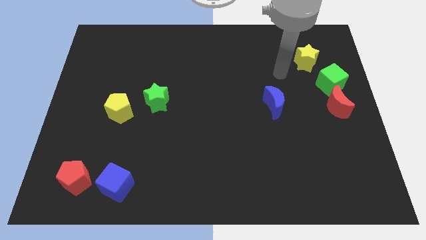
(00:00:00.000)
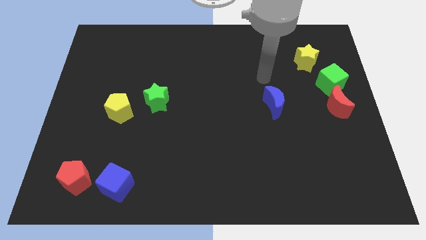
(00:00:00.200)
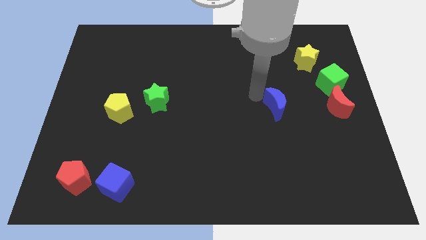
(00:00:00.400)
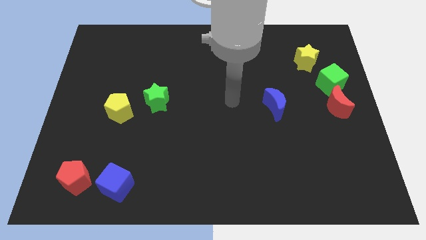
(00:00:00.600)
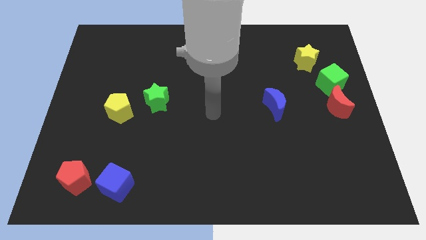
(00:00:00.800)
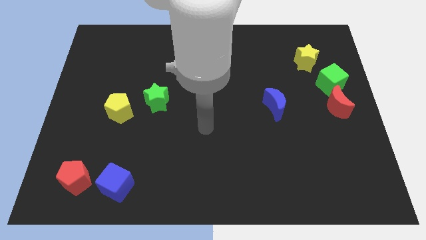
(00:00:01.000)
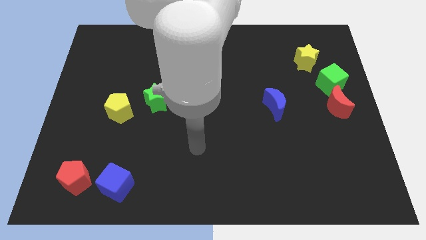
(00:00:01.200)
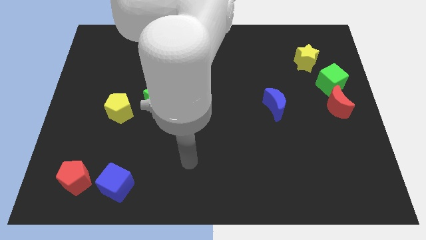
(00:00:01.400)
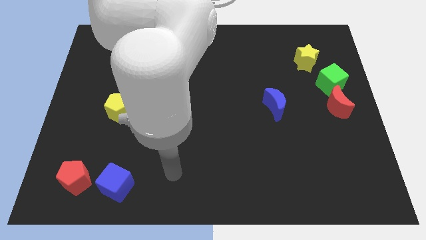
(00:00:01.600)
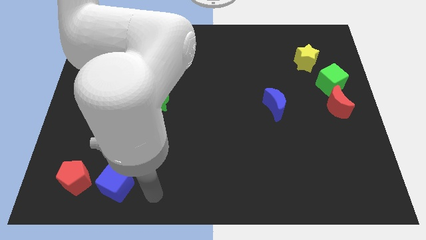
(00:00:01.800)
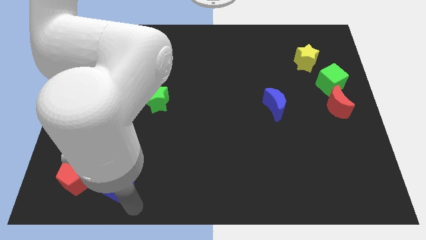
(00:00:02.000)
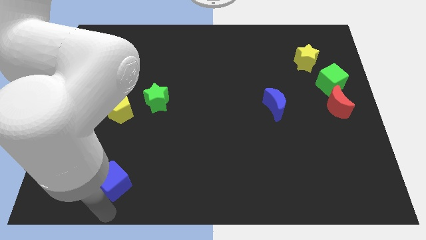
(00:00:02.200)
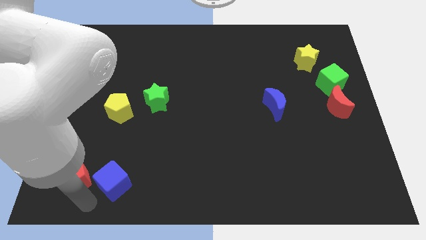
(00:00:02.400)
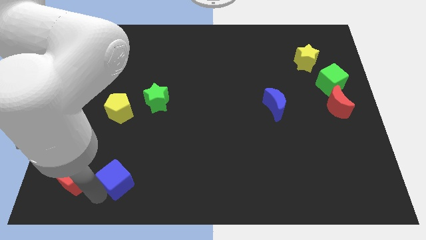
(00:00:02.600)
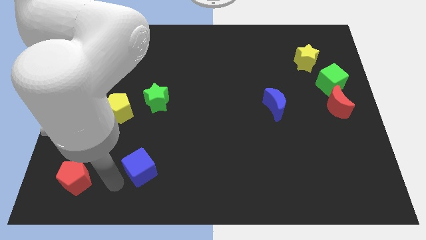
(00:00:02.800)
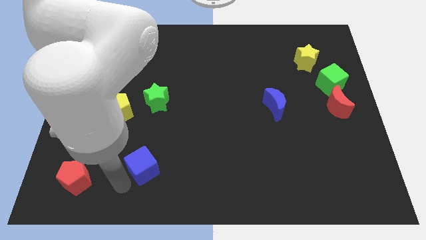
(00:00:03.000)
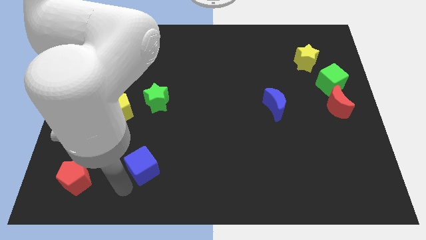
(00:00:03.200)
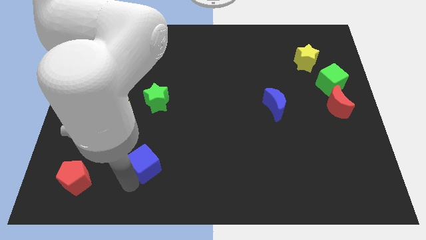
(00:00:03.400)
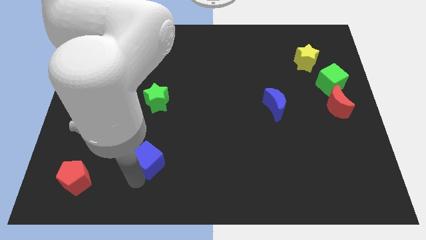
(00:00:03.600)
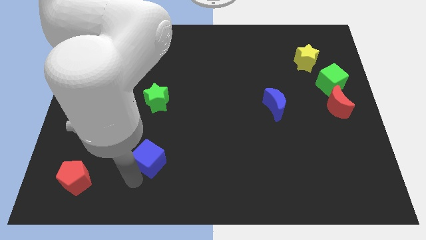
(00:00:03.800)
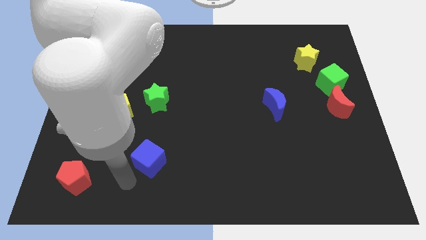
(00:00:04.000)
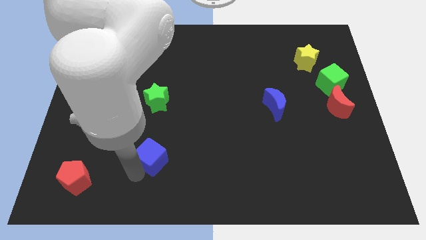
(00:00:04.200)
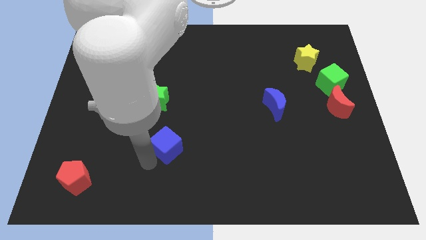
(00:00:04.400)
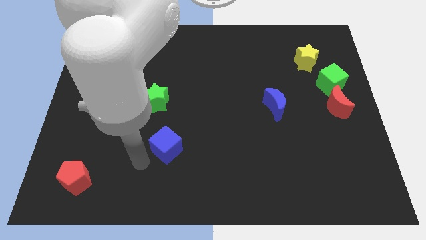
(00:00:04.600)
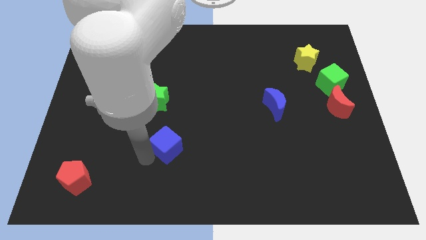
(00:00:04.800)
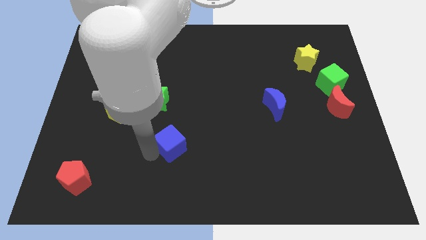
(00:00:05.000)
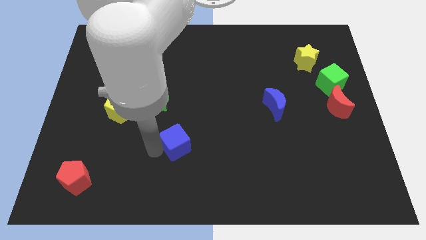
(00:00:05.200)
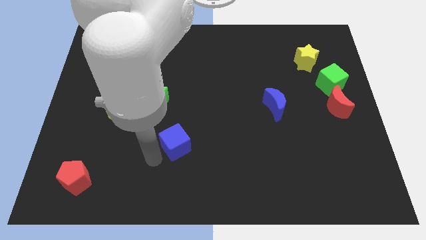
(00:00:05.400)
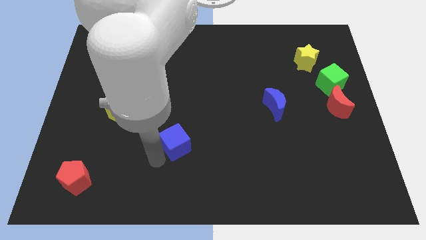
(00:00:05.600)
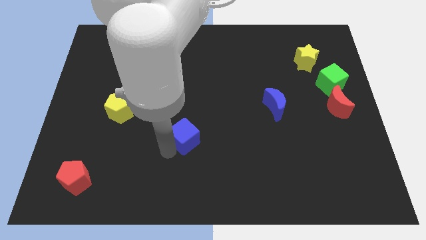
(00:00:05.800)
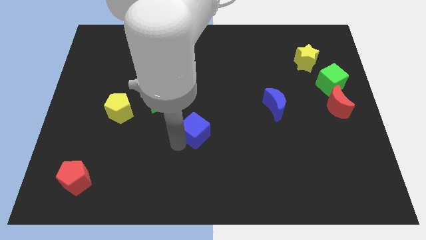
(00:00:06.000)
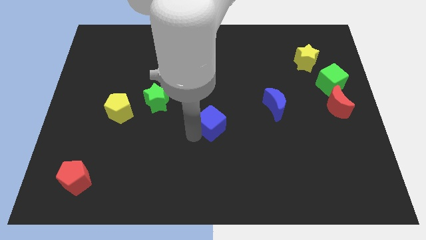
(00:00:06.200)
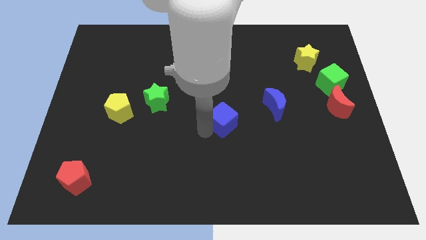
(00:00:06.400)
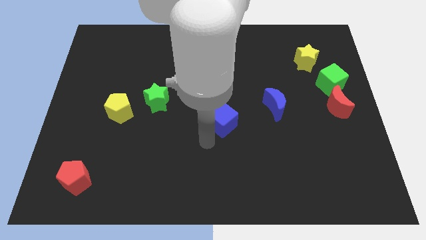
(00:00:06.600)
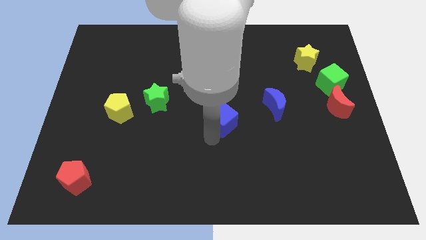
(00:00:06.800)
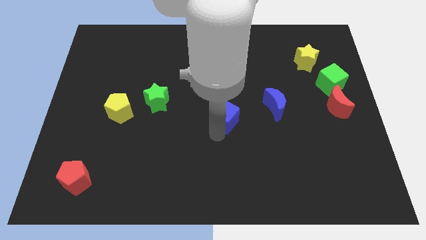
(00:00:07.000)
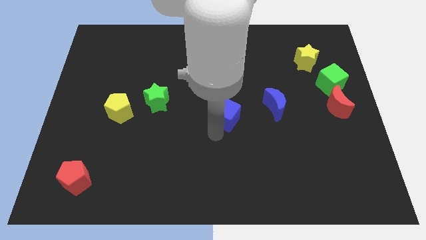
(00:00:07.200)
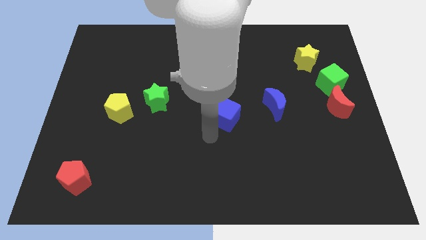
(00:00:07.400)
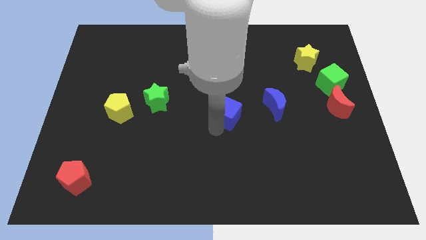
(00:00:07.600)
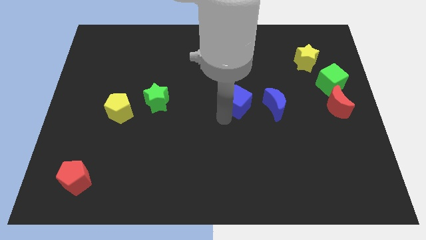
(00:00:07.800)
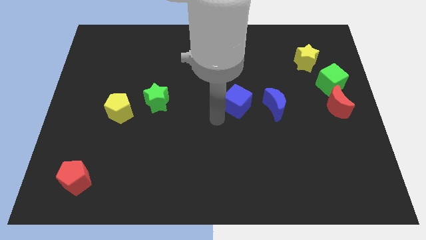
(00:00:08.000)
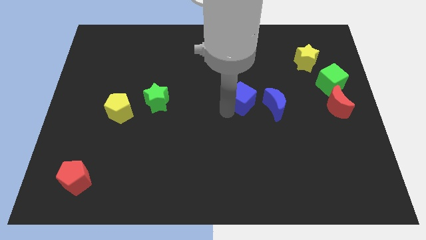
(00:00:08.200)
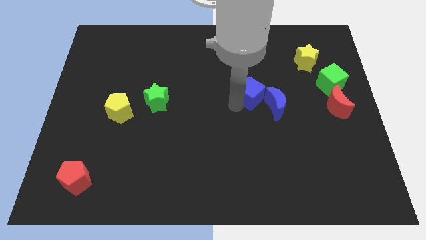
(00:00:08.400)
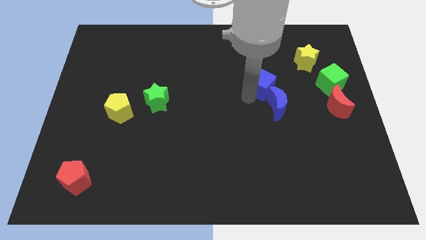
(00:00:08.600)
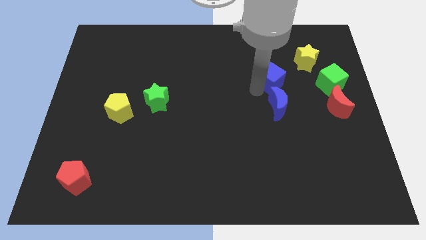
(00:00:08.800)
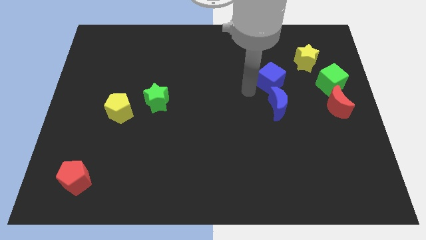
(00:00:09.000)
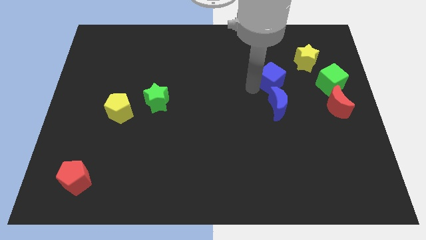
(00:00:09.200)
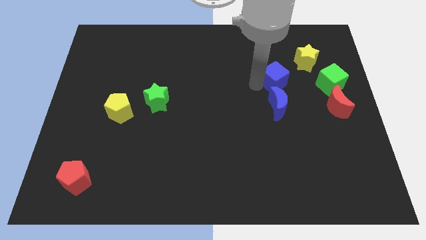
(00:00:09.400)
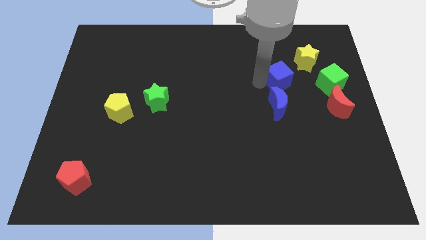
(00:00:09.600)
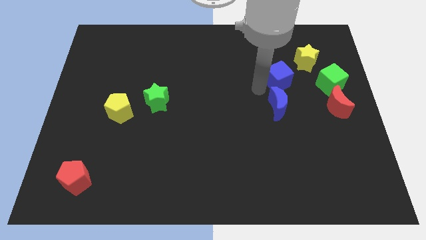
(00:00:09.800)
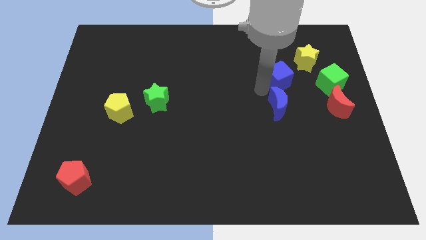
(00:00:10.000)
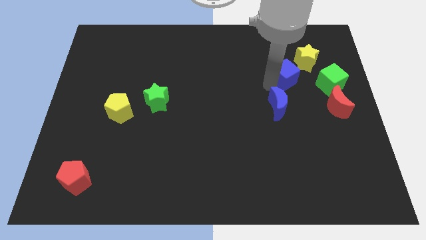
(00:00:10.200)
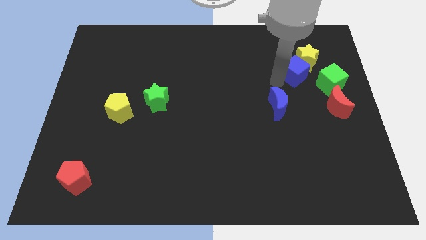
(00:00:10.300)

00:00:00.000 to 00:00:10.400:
push the blue cube close to the yellow star

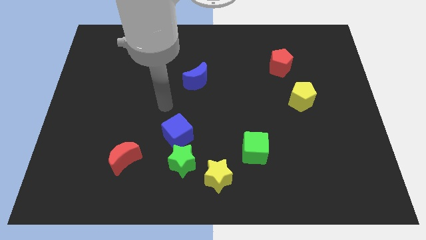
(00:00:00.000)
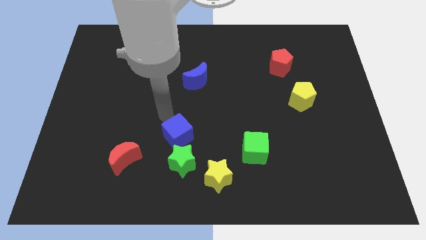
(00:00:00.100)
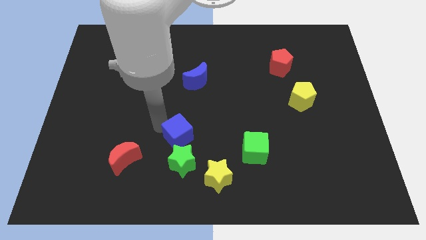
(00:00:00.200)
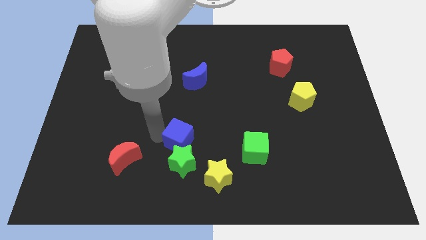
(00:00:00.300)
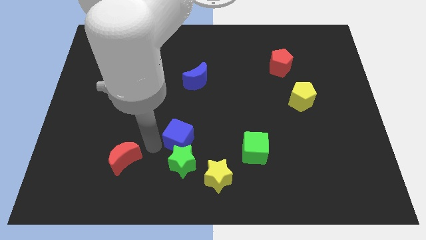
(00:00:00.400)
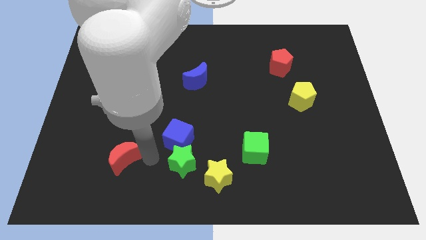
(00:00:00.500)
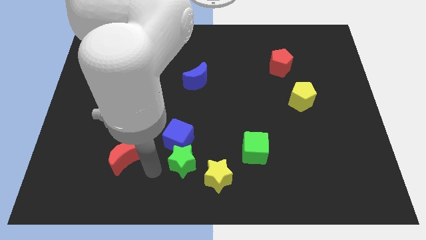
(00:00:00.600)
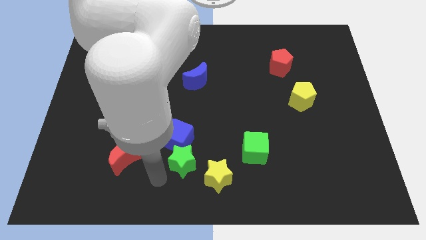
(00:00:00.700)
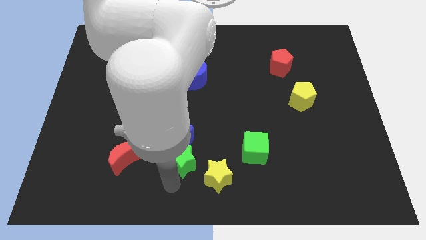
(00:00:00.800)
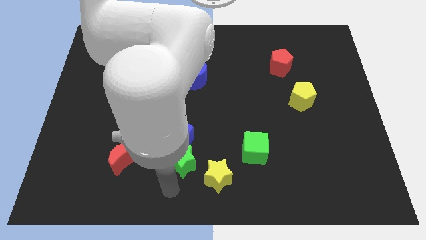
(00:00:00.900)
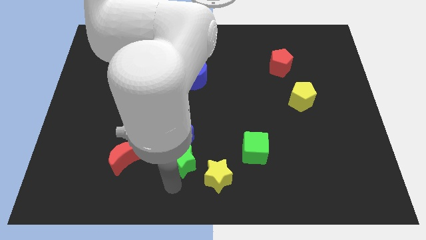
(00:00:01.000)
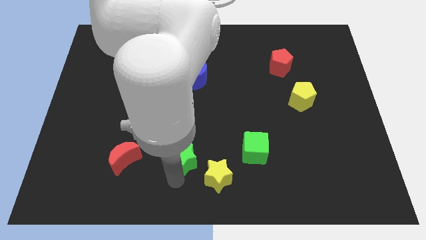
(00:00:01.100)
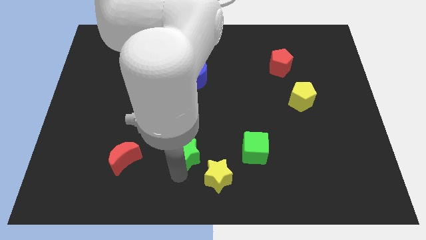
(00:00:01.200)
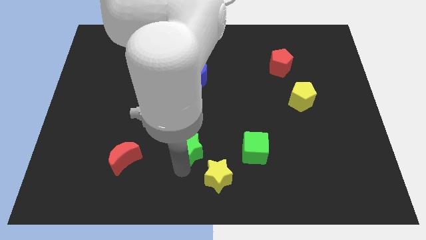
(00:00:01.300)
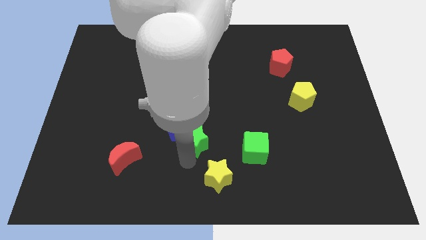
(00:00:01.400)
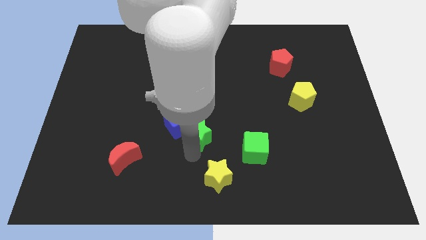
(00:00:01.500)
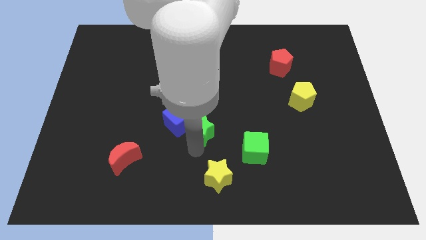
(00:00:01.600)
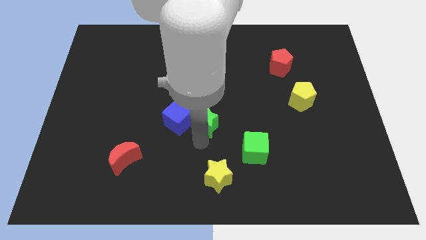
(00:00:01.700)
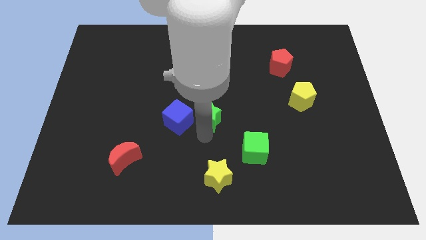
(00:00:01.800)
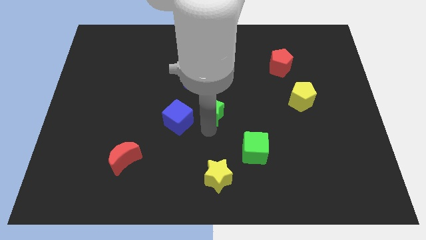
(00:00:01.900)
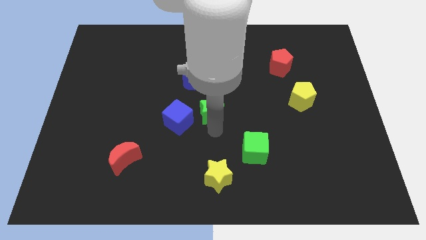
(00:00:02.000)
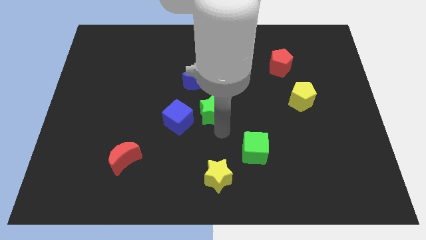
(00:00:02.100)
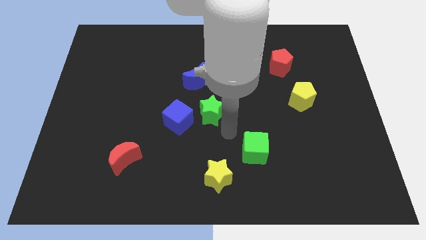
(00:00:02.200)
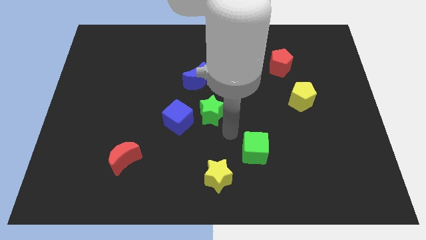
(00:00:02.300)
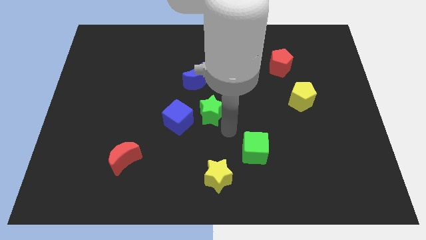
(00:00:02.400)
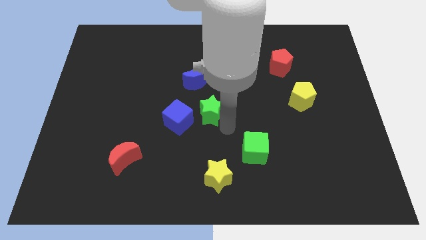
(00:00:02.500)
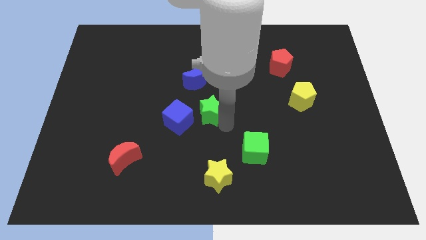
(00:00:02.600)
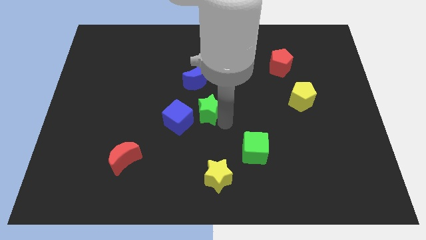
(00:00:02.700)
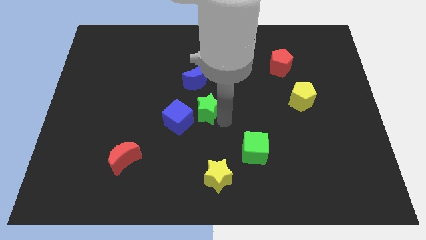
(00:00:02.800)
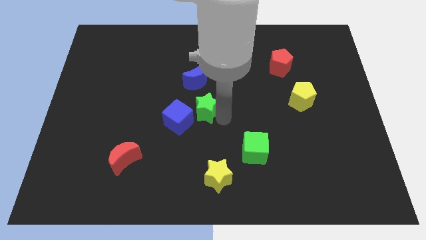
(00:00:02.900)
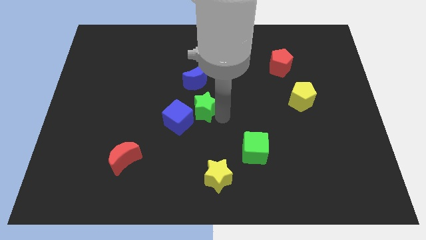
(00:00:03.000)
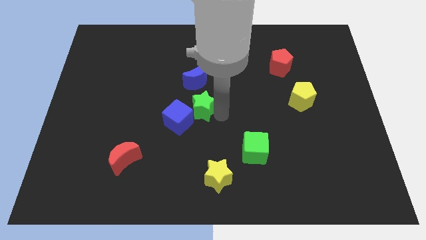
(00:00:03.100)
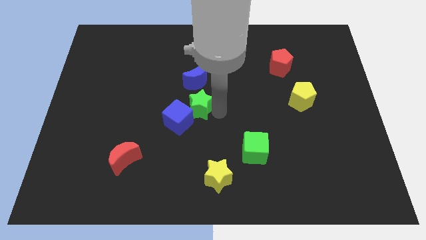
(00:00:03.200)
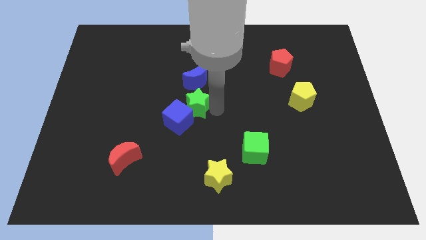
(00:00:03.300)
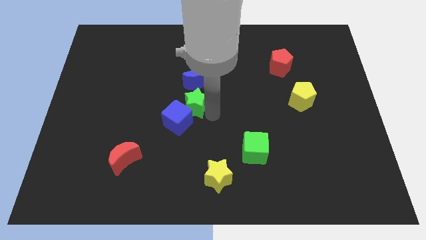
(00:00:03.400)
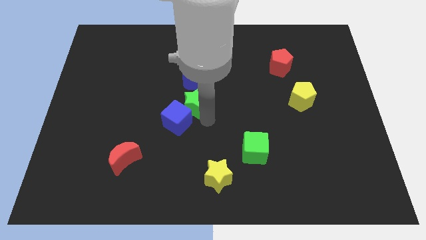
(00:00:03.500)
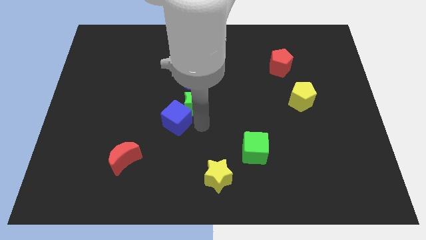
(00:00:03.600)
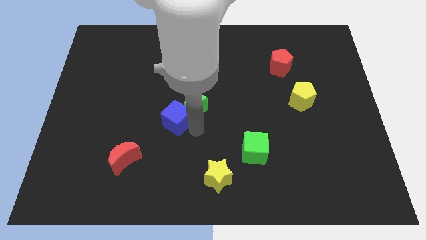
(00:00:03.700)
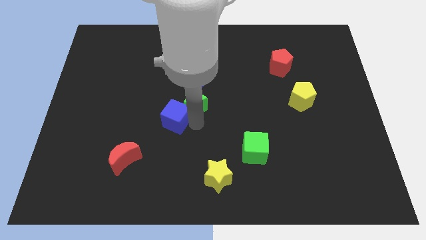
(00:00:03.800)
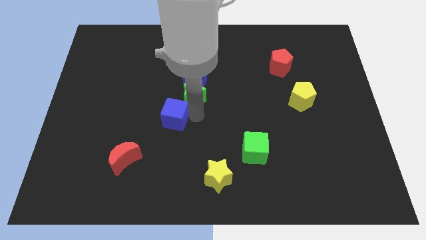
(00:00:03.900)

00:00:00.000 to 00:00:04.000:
put the green star next to the blue moon
